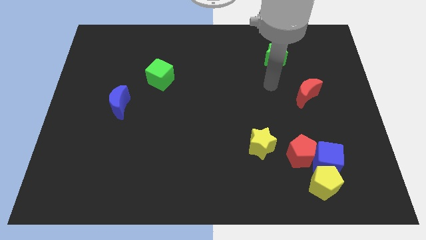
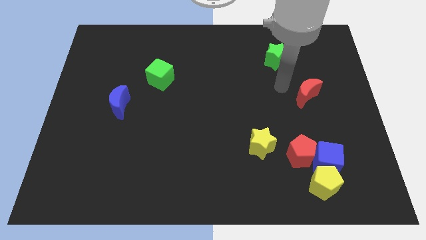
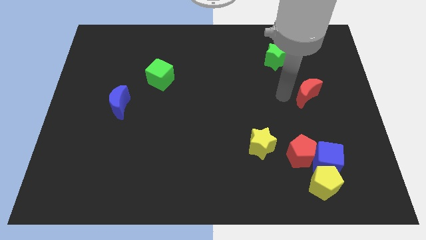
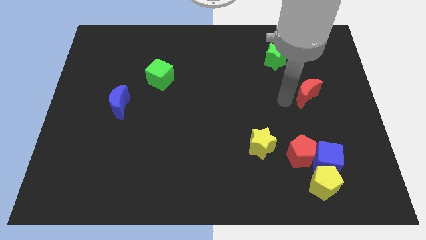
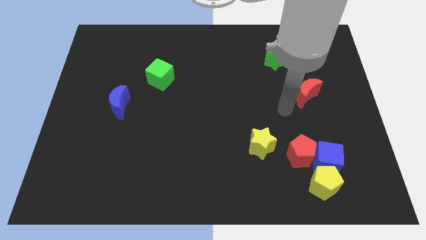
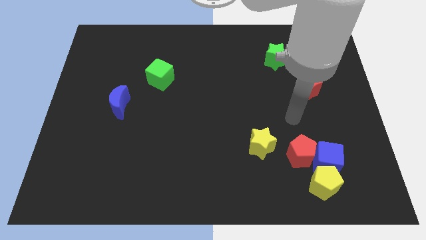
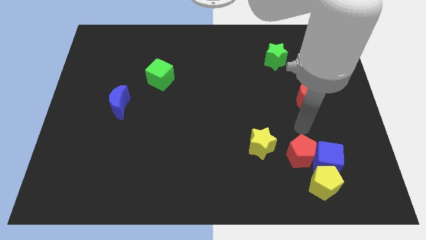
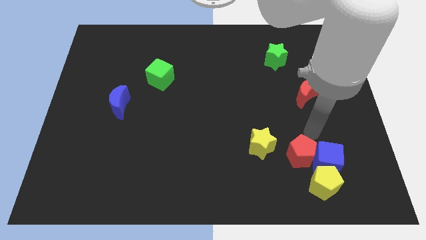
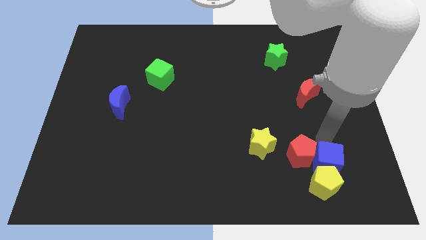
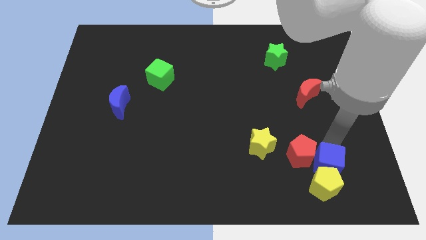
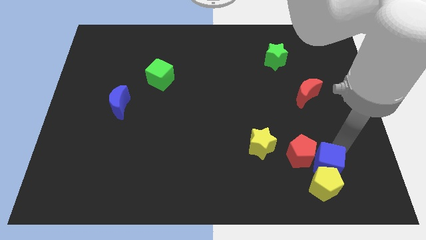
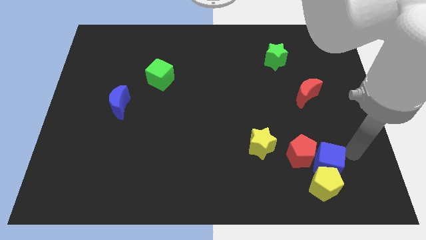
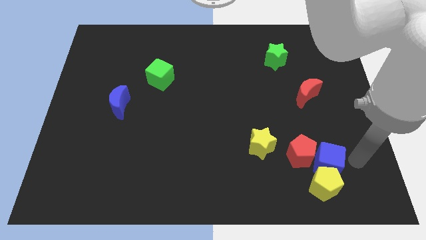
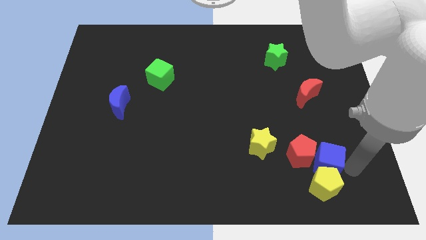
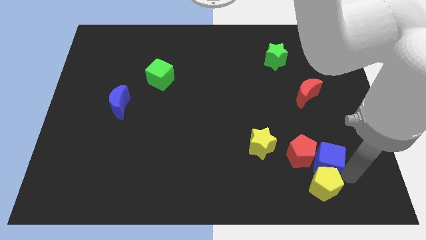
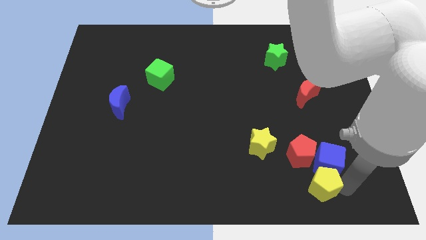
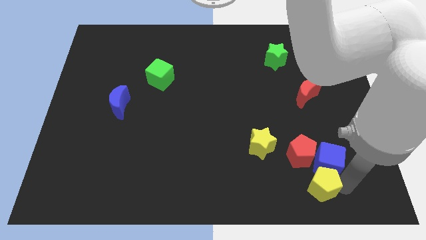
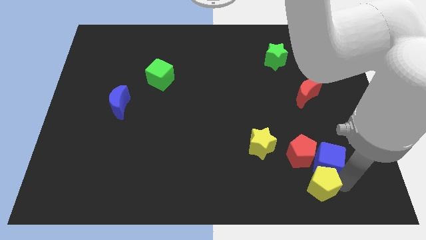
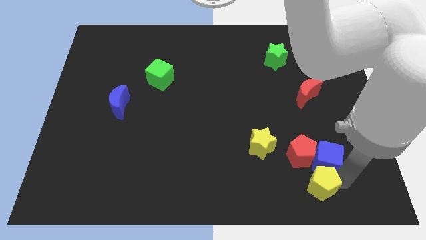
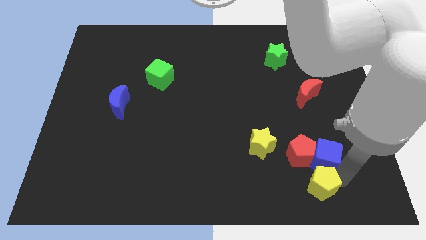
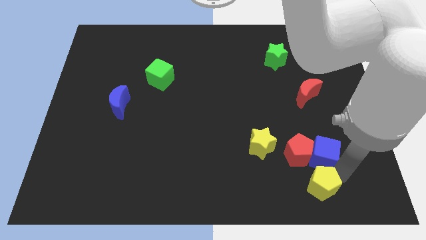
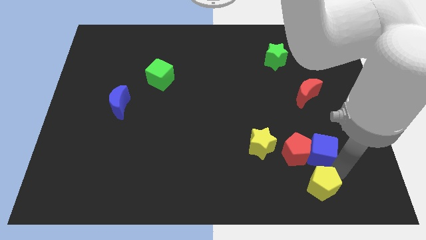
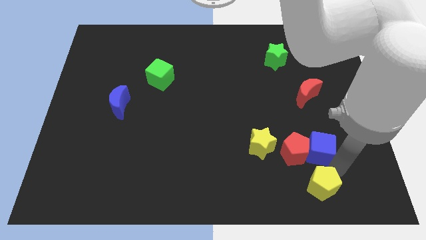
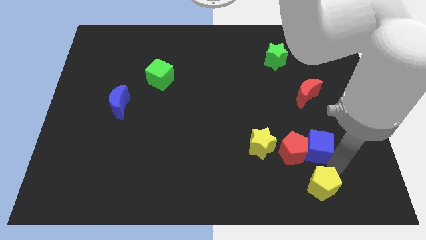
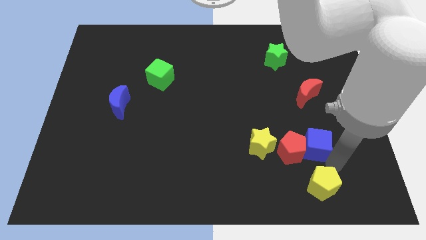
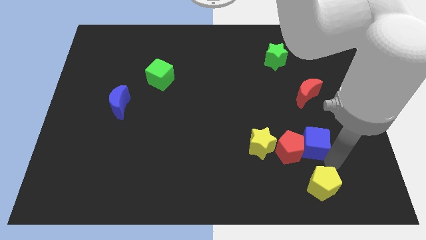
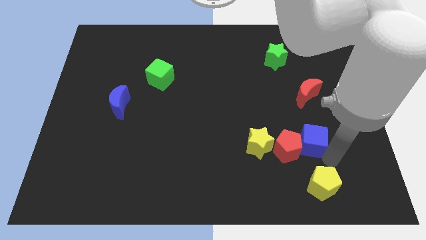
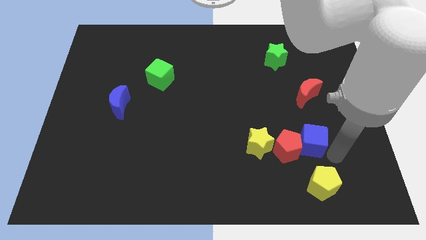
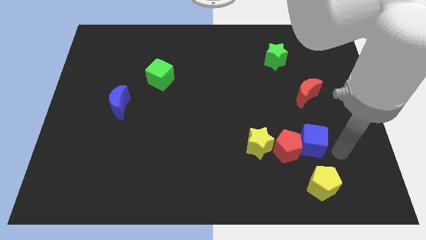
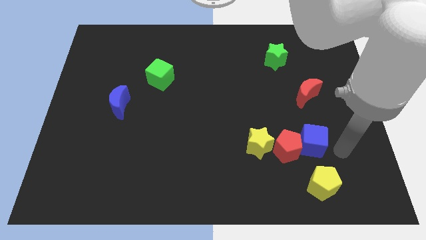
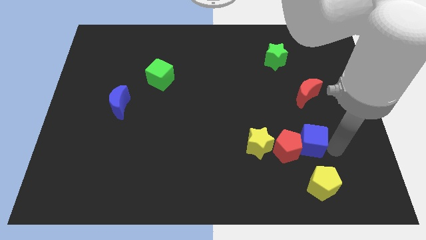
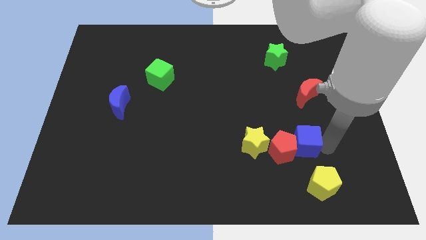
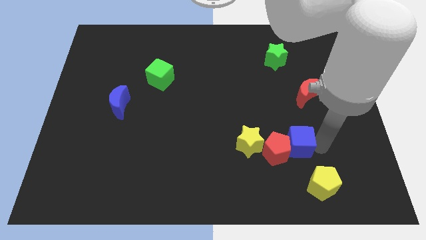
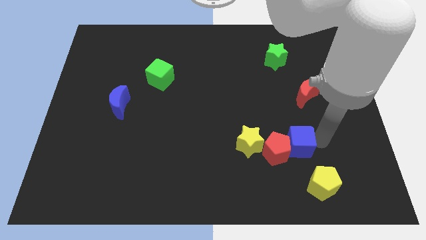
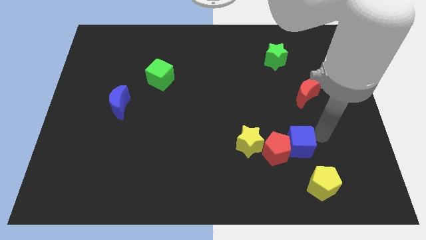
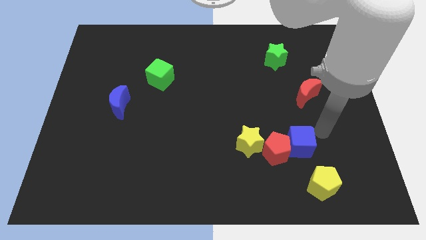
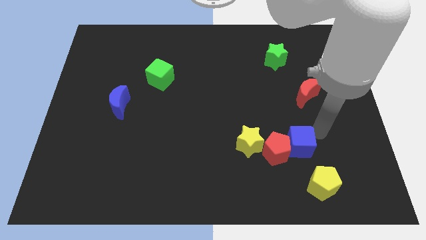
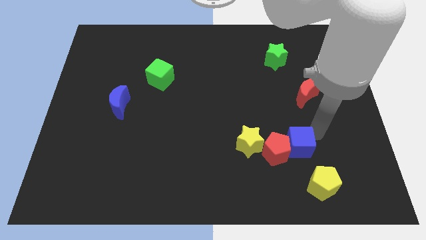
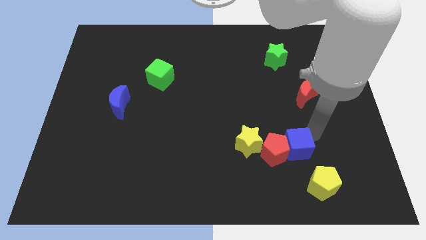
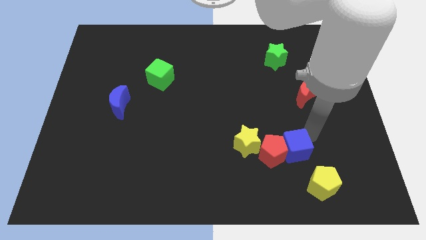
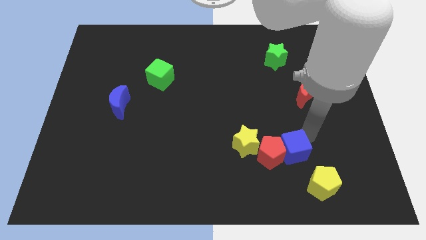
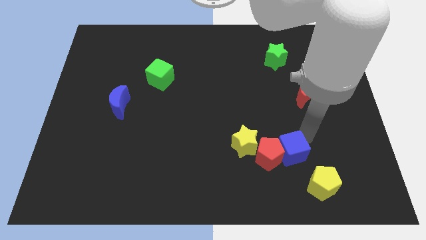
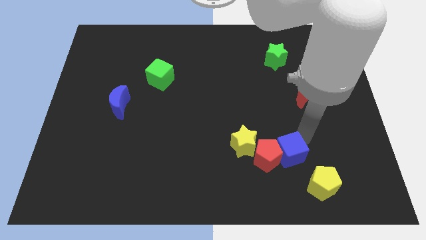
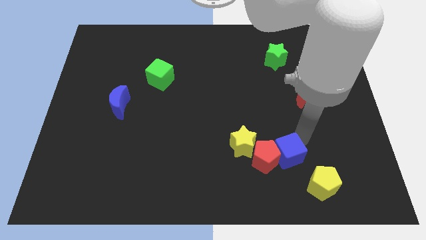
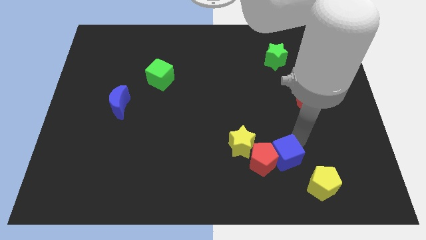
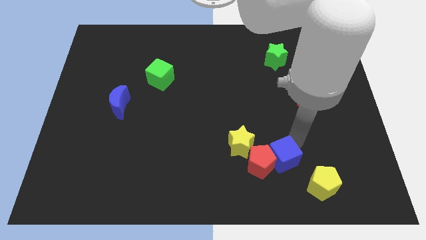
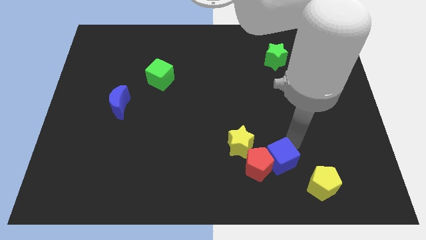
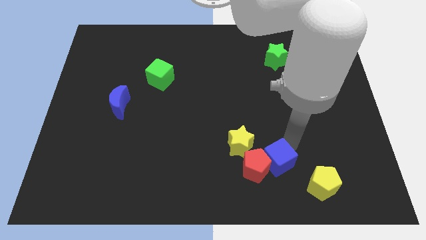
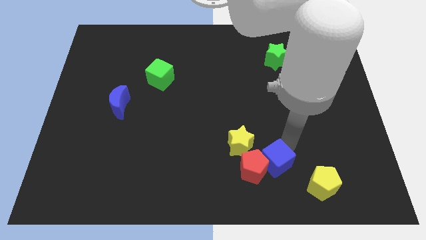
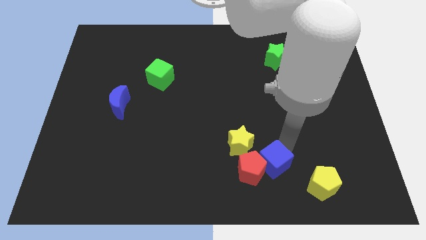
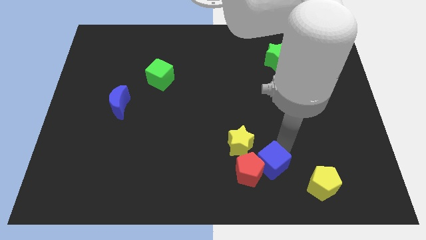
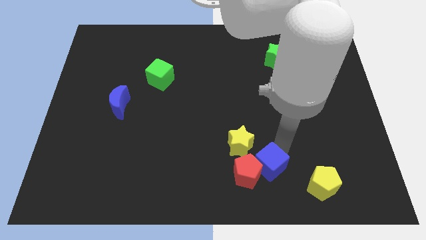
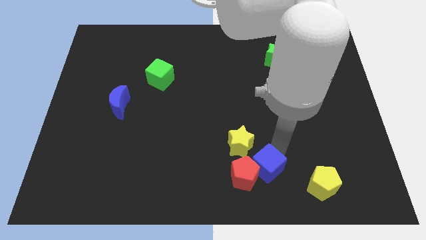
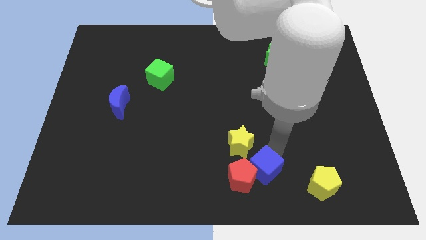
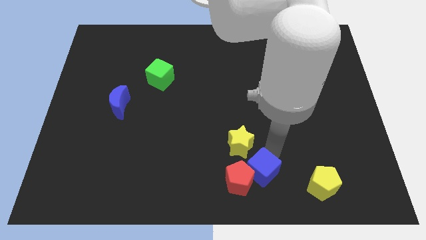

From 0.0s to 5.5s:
slide the blue cube to the bottom

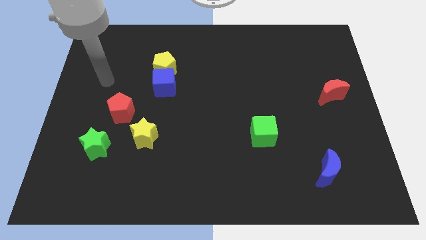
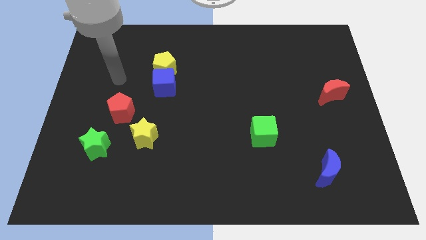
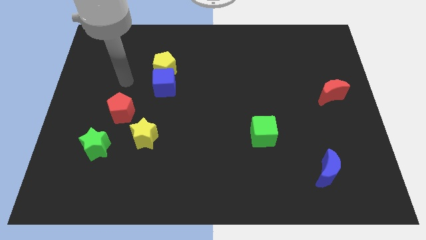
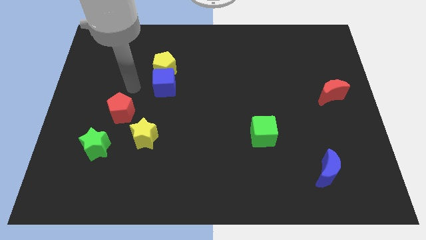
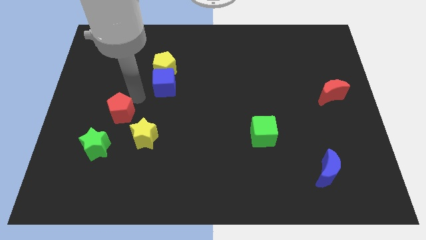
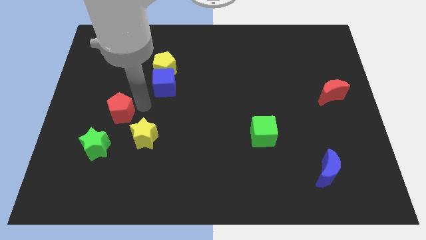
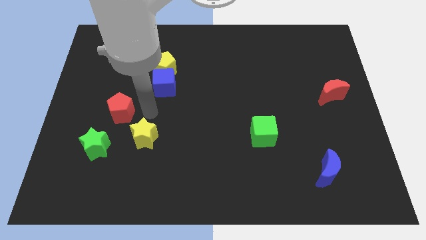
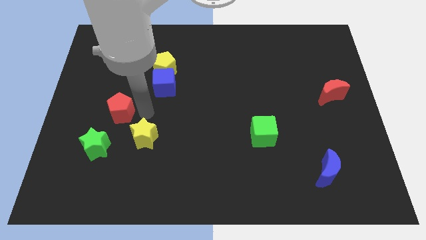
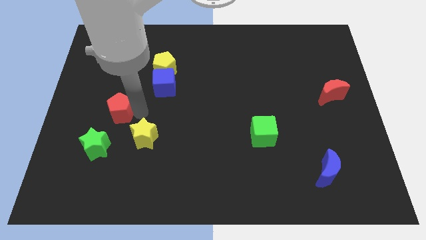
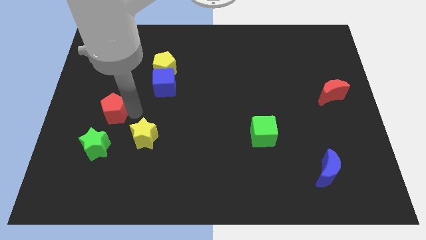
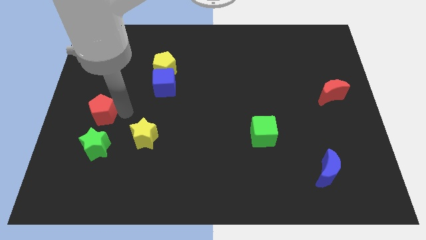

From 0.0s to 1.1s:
put the red pentagon to the left side

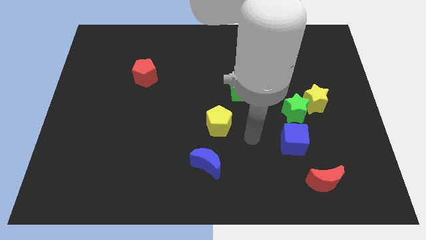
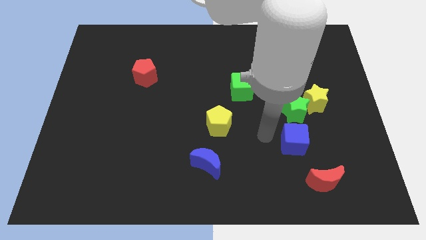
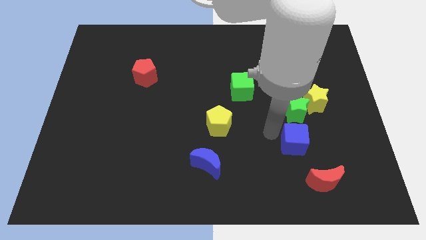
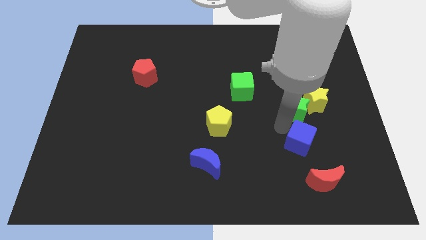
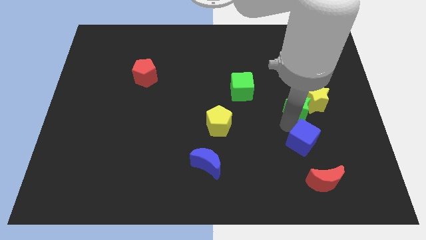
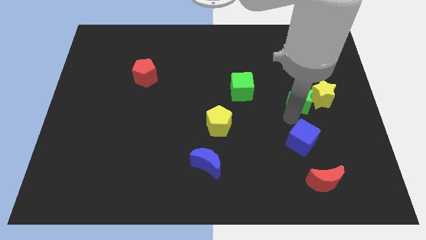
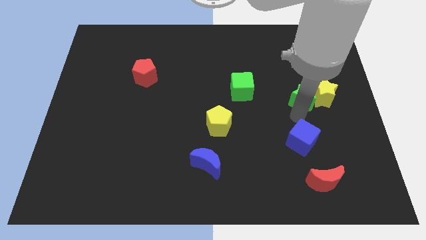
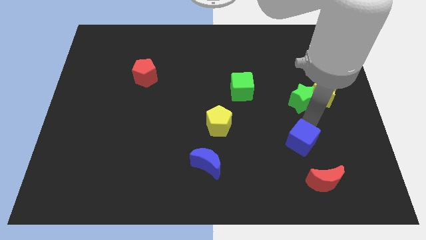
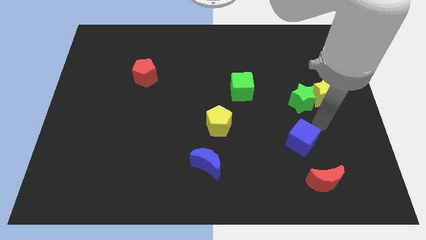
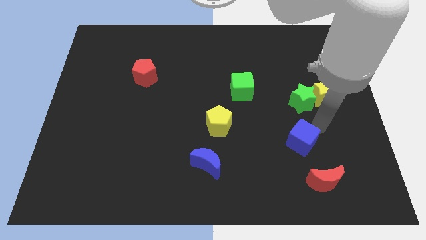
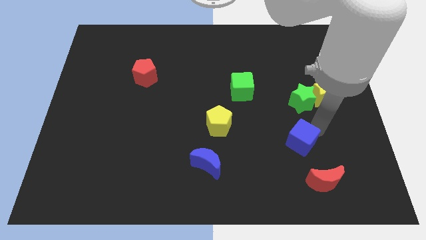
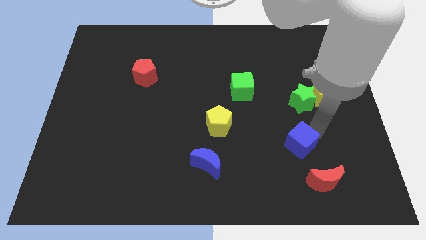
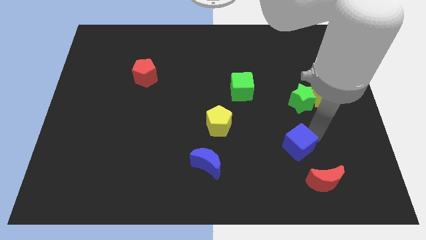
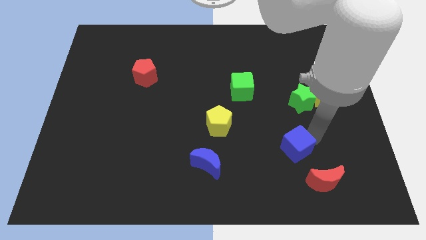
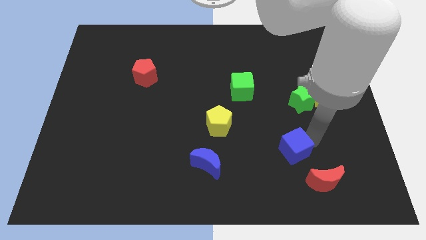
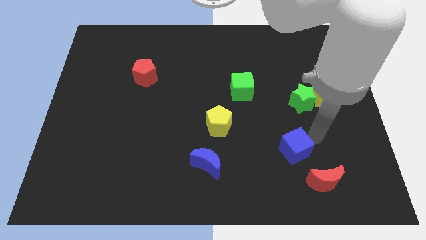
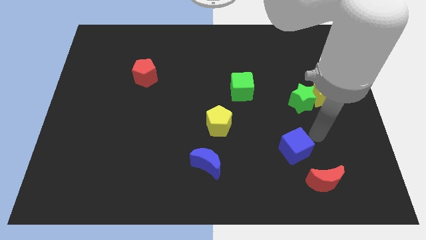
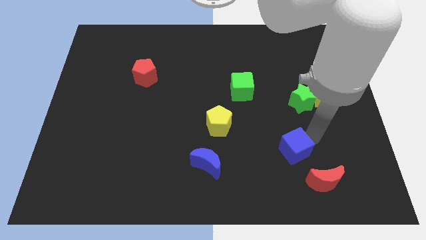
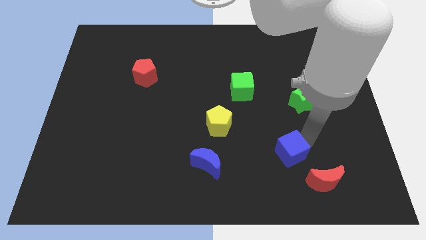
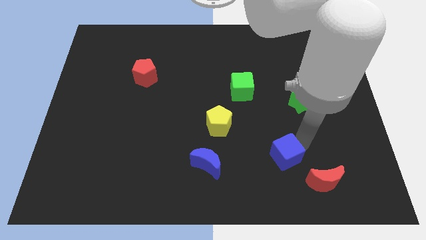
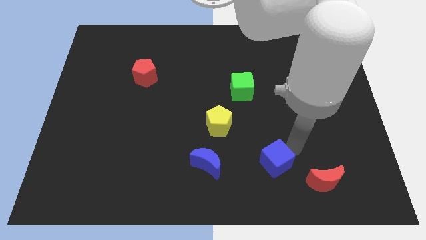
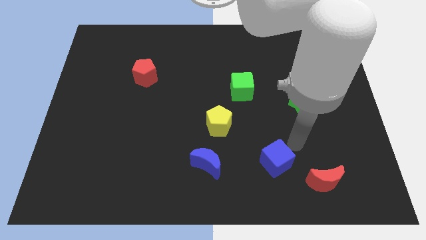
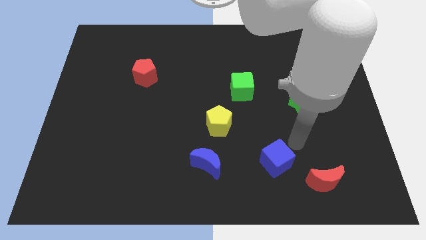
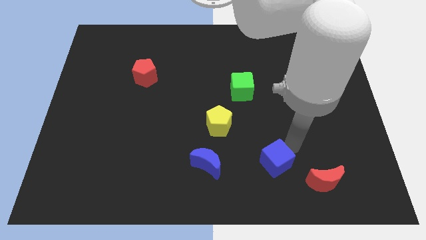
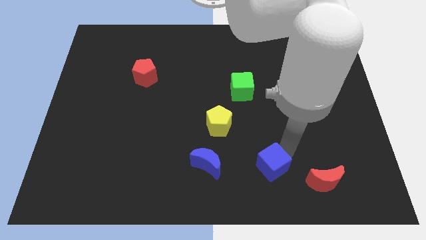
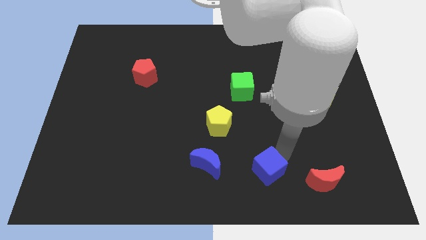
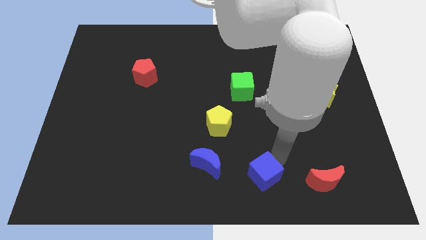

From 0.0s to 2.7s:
move the blue cube to the bottom
